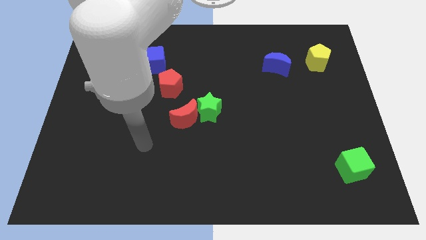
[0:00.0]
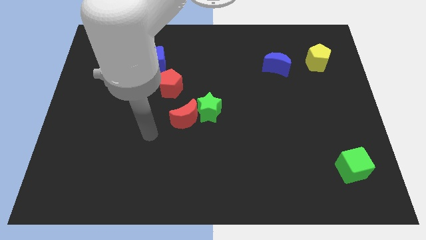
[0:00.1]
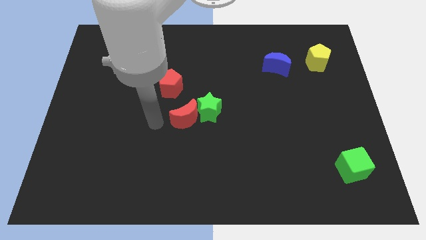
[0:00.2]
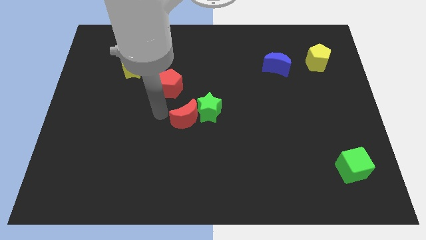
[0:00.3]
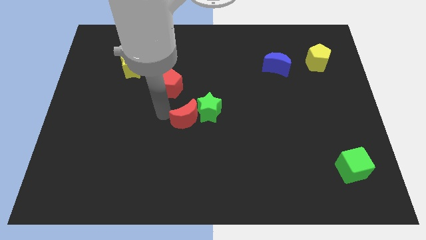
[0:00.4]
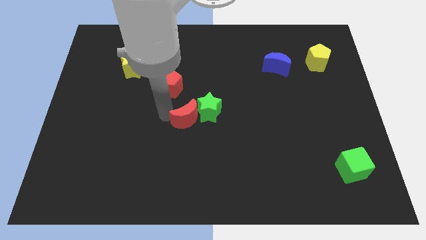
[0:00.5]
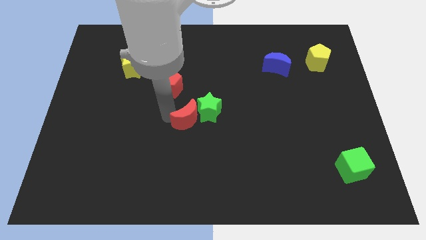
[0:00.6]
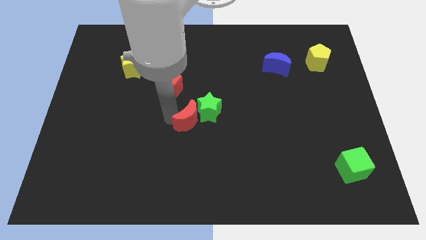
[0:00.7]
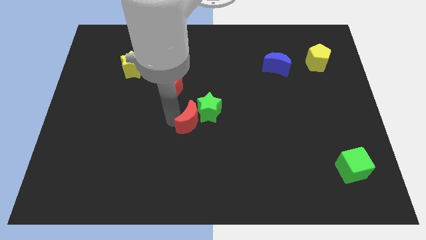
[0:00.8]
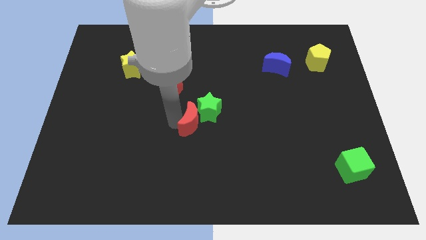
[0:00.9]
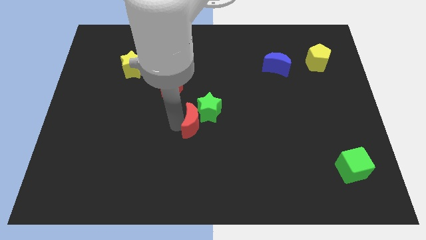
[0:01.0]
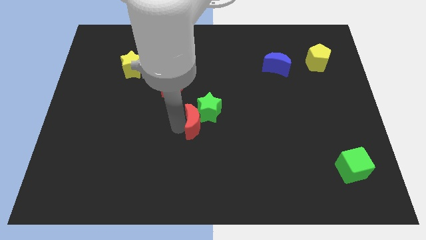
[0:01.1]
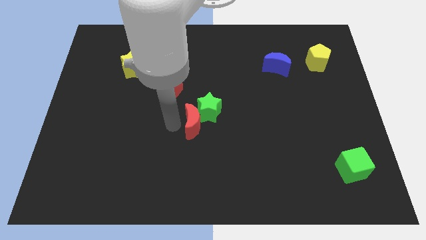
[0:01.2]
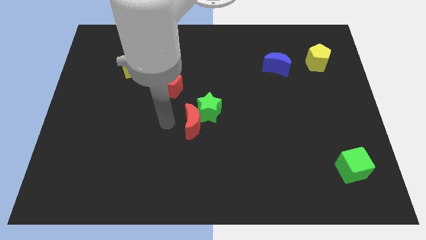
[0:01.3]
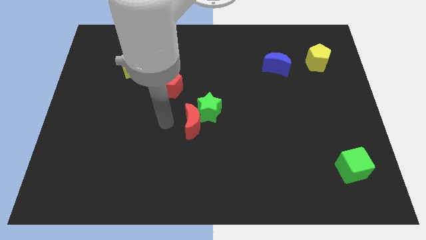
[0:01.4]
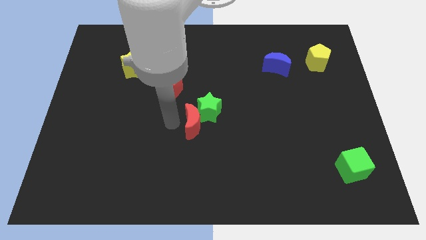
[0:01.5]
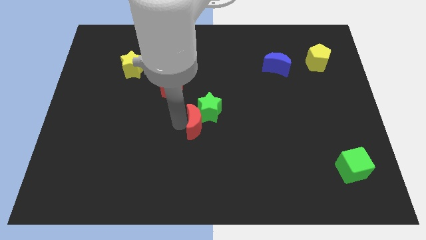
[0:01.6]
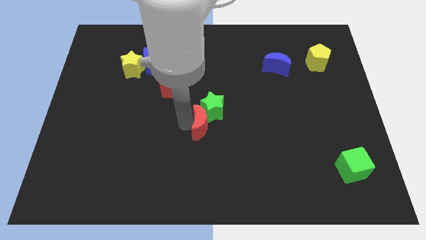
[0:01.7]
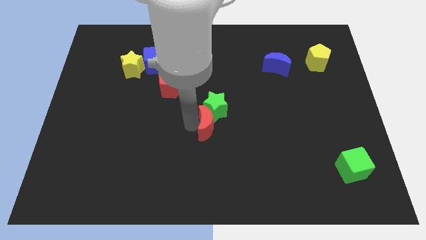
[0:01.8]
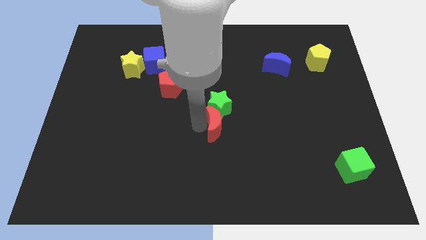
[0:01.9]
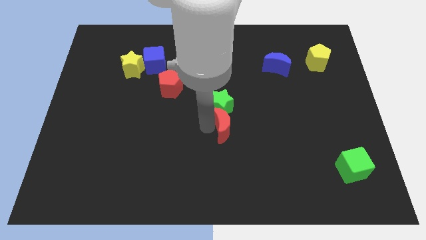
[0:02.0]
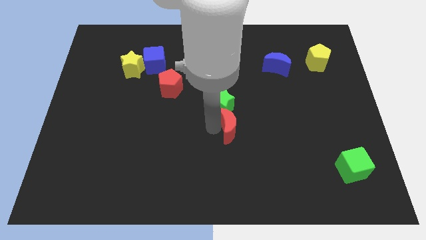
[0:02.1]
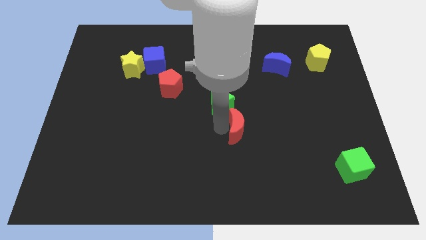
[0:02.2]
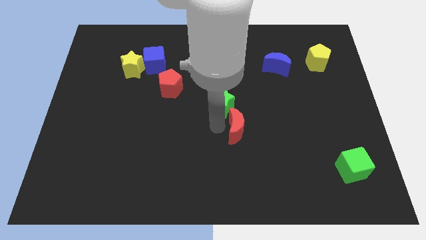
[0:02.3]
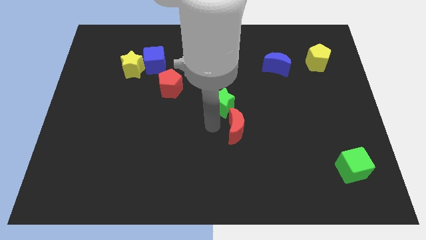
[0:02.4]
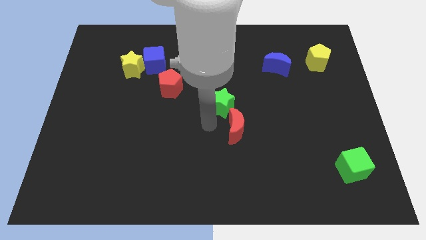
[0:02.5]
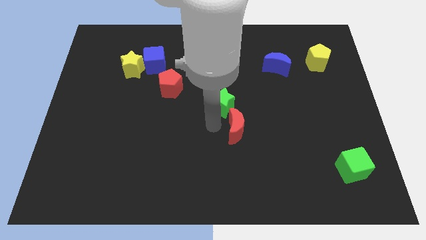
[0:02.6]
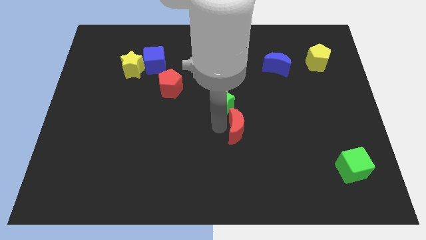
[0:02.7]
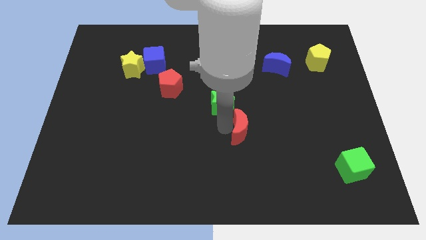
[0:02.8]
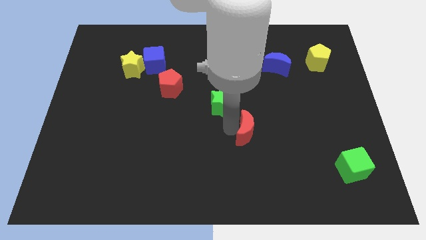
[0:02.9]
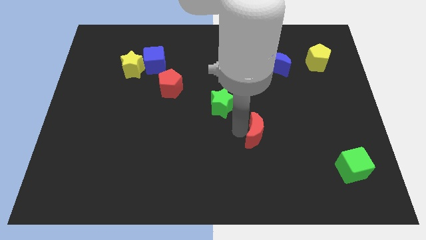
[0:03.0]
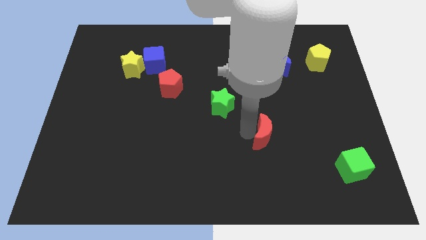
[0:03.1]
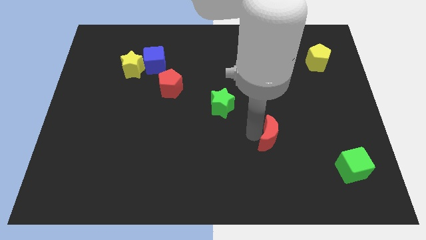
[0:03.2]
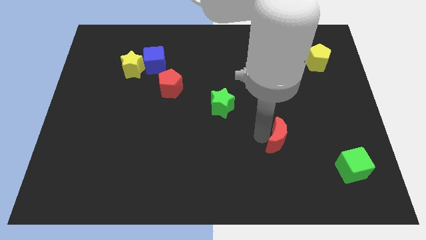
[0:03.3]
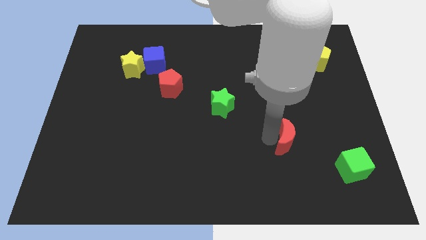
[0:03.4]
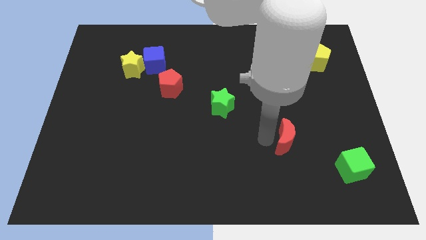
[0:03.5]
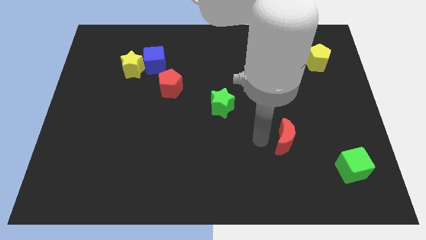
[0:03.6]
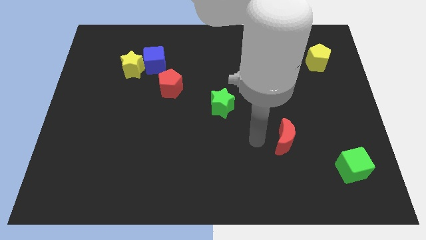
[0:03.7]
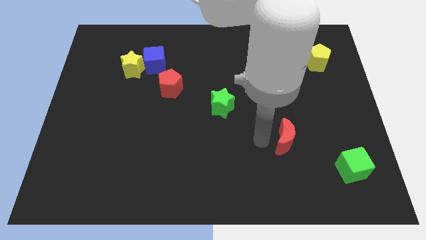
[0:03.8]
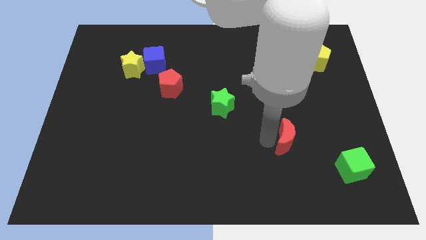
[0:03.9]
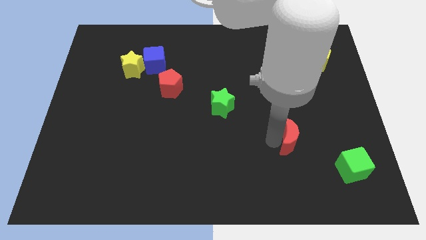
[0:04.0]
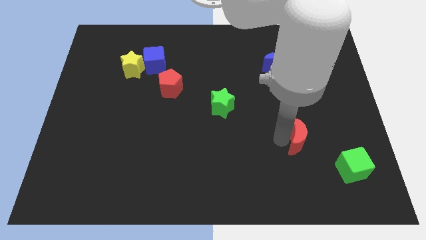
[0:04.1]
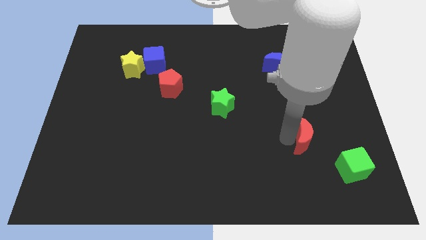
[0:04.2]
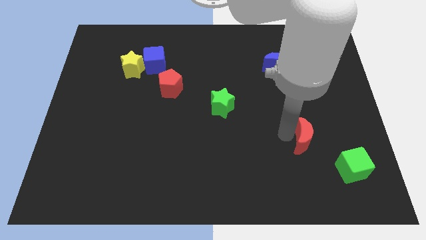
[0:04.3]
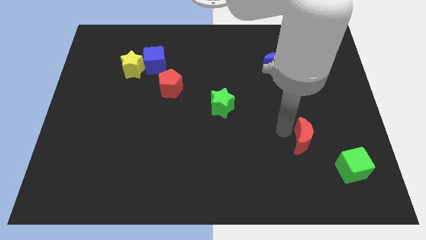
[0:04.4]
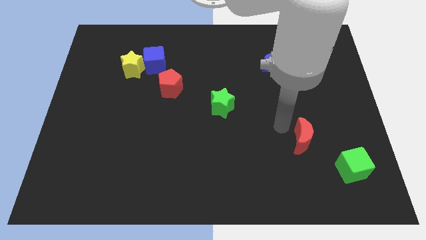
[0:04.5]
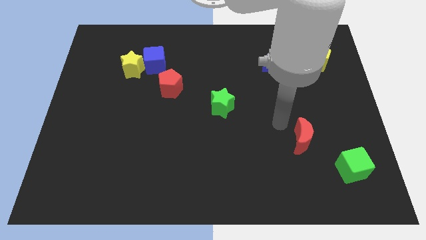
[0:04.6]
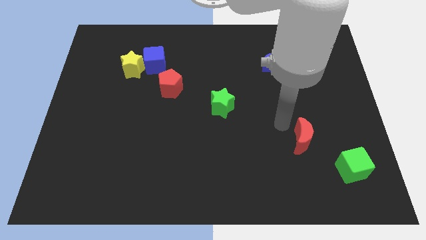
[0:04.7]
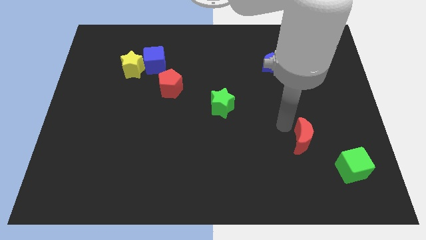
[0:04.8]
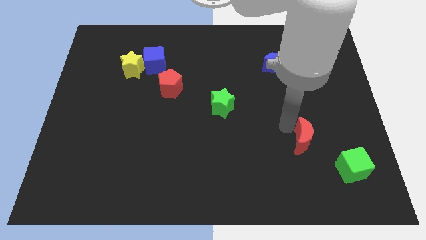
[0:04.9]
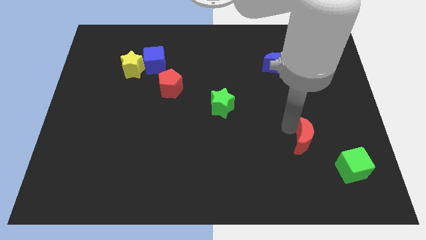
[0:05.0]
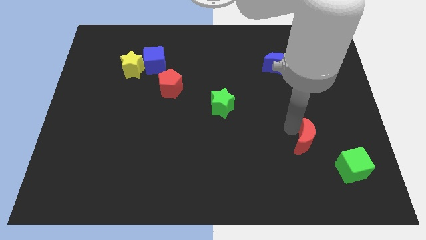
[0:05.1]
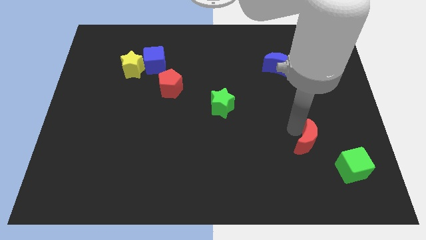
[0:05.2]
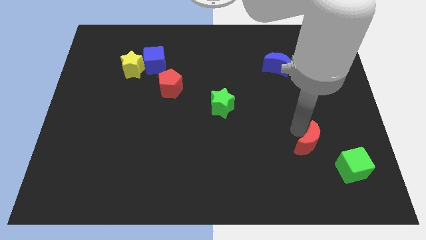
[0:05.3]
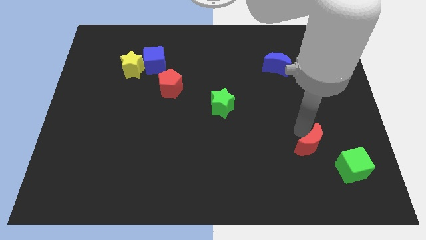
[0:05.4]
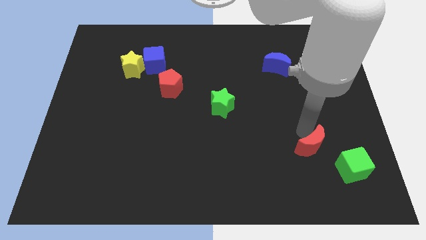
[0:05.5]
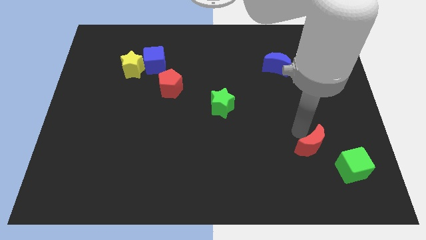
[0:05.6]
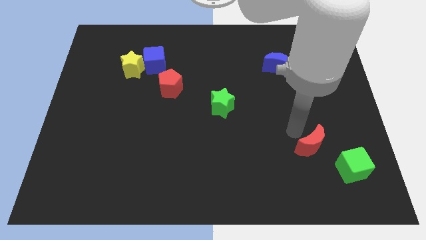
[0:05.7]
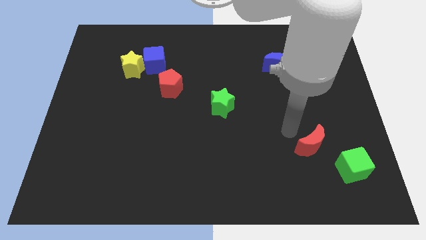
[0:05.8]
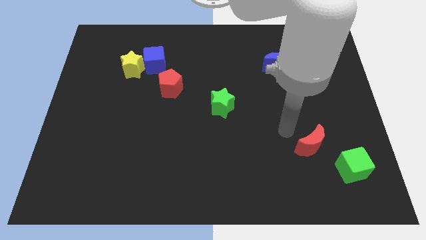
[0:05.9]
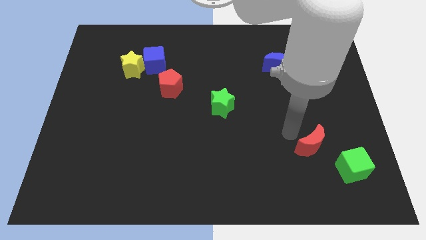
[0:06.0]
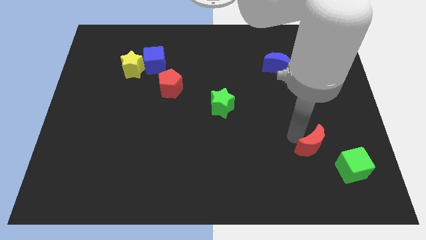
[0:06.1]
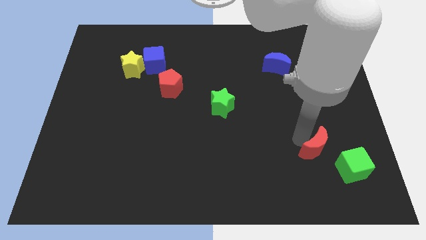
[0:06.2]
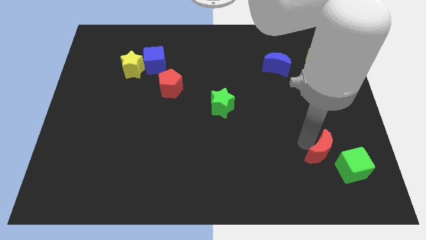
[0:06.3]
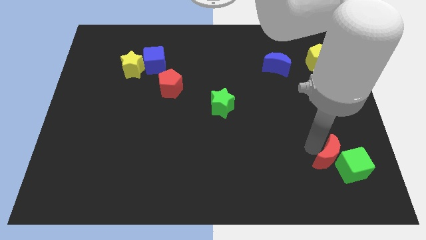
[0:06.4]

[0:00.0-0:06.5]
slide the red moon towards the green cube
